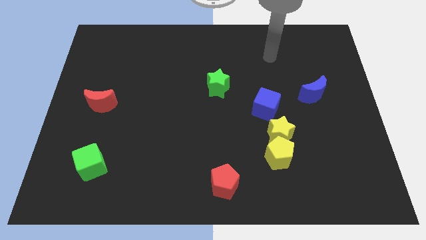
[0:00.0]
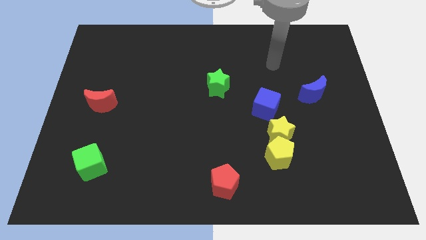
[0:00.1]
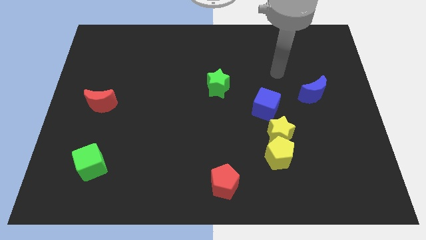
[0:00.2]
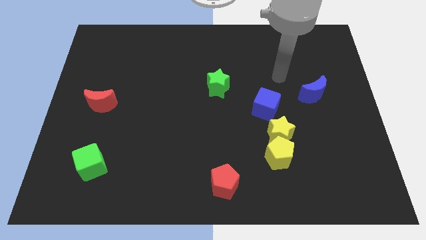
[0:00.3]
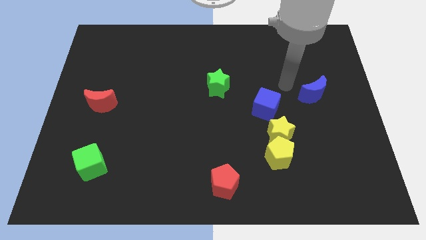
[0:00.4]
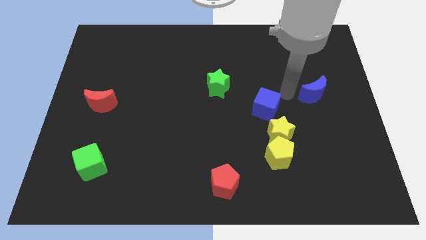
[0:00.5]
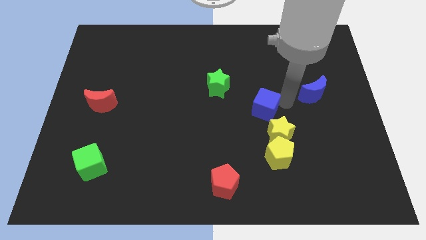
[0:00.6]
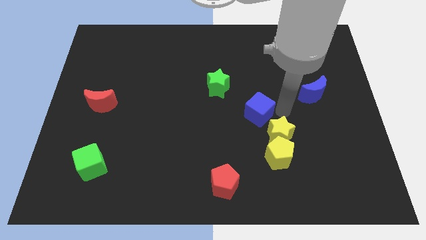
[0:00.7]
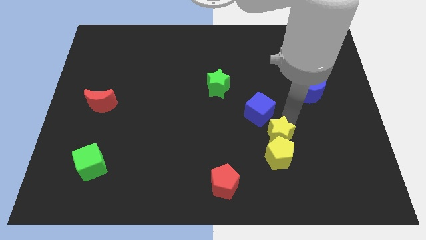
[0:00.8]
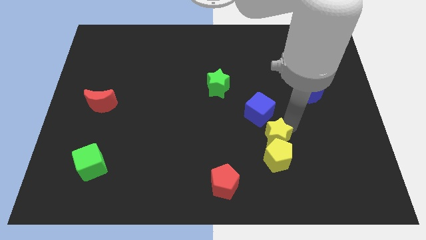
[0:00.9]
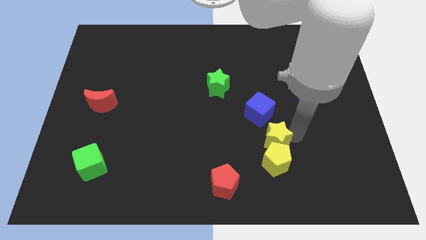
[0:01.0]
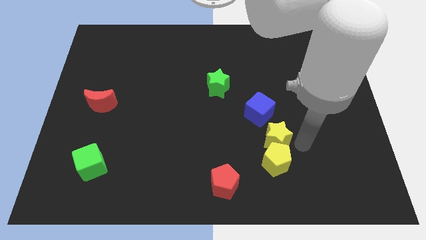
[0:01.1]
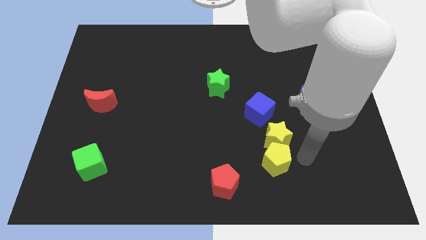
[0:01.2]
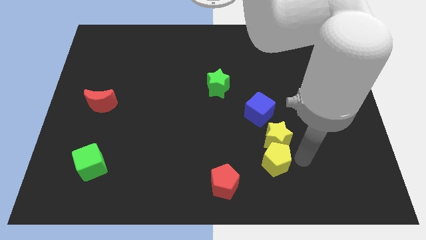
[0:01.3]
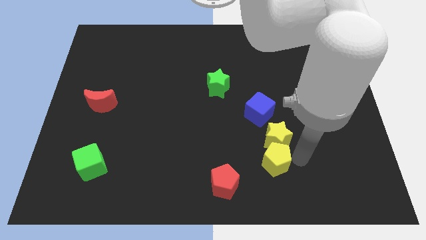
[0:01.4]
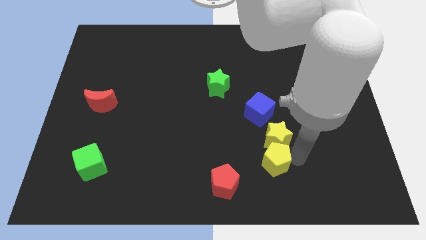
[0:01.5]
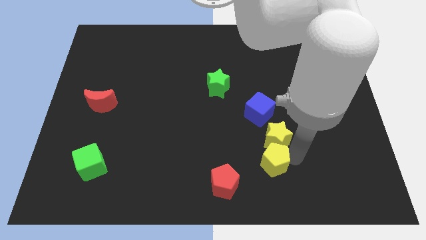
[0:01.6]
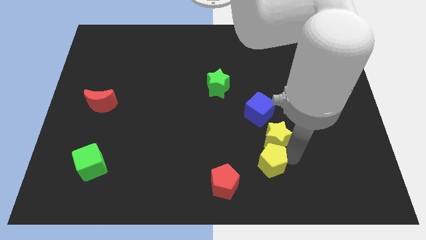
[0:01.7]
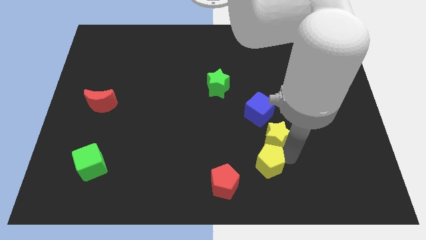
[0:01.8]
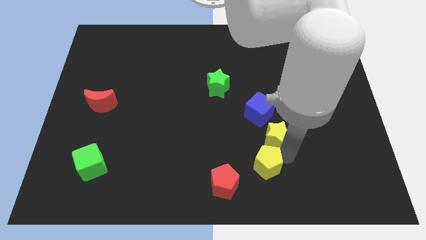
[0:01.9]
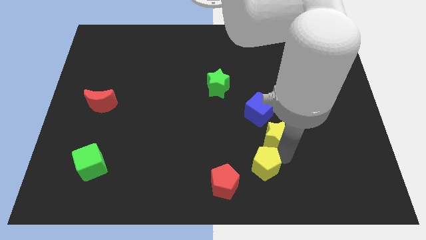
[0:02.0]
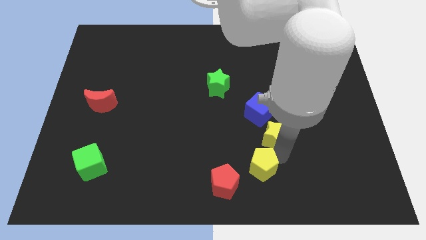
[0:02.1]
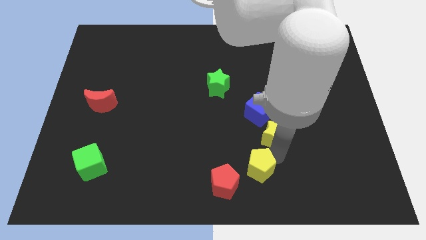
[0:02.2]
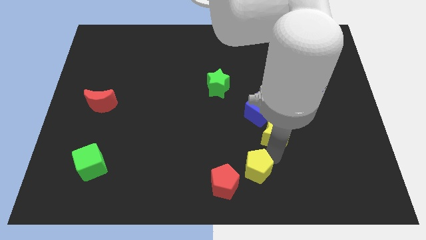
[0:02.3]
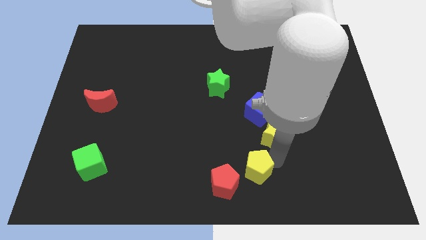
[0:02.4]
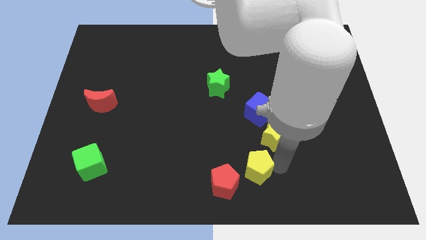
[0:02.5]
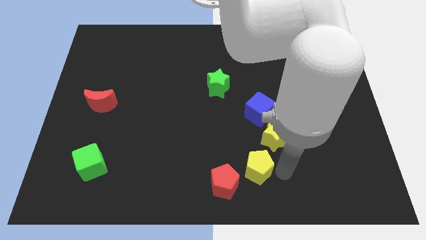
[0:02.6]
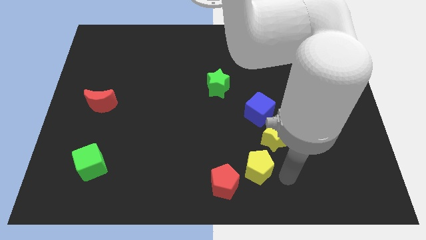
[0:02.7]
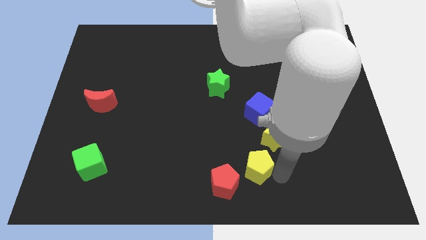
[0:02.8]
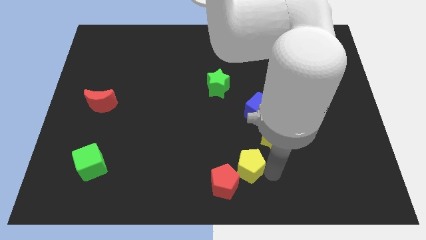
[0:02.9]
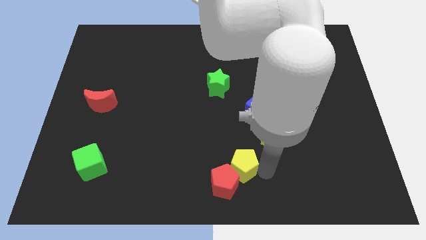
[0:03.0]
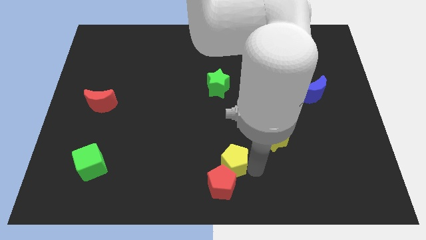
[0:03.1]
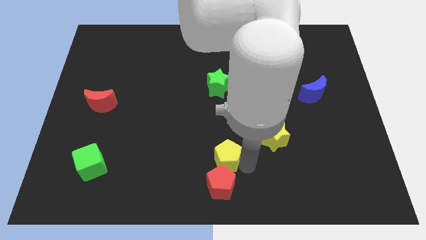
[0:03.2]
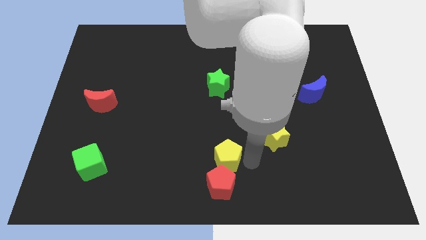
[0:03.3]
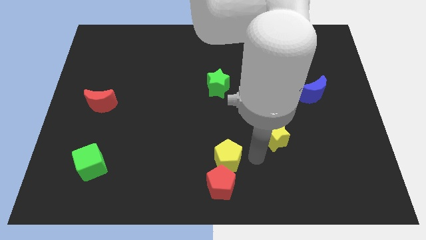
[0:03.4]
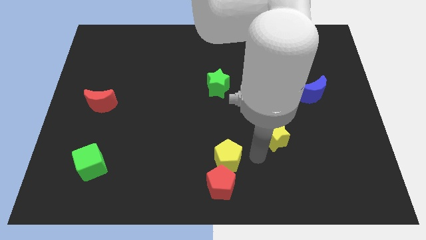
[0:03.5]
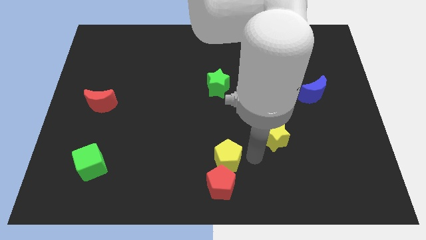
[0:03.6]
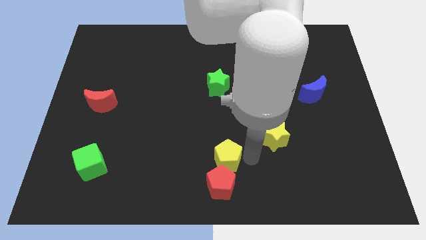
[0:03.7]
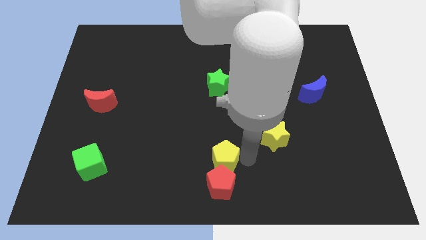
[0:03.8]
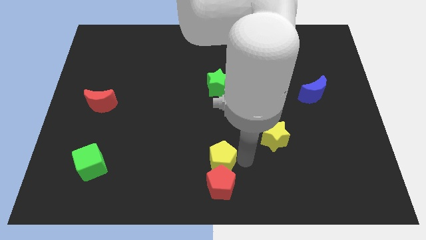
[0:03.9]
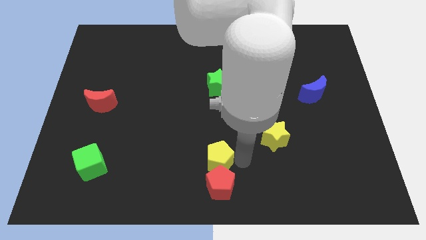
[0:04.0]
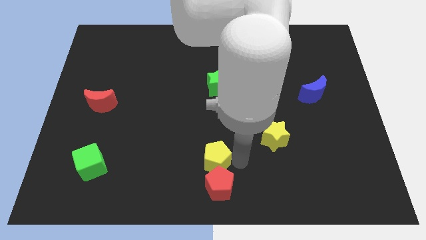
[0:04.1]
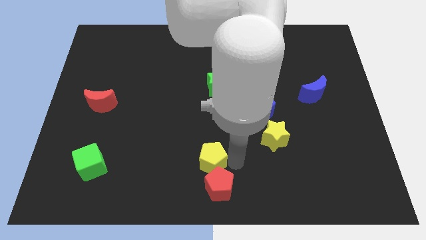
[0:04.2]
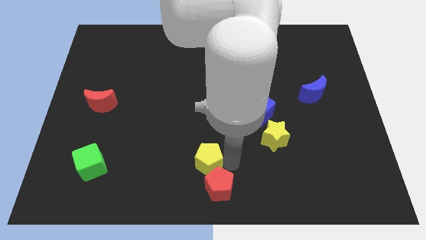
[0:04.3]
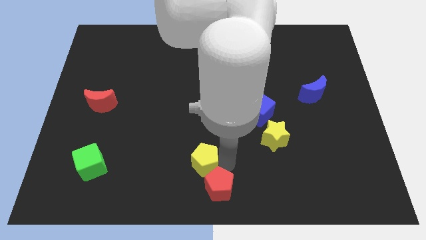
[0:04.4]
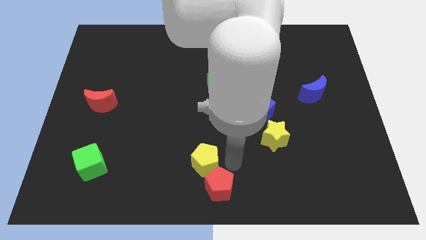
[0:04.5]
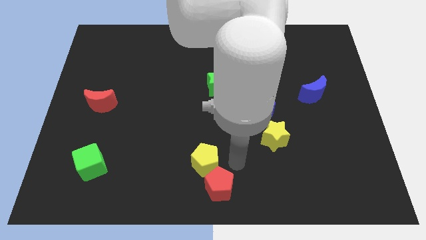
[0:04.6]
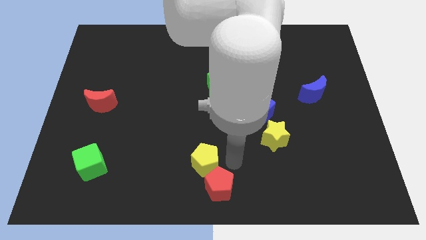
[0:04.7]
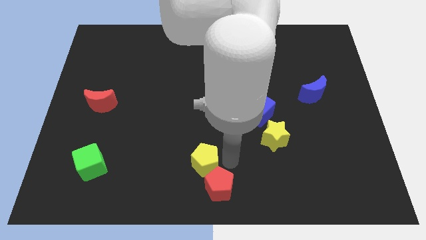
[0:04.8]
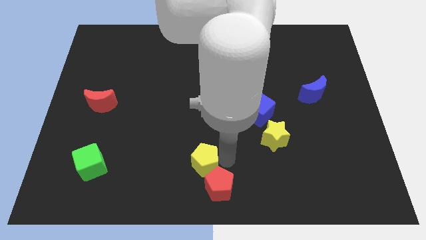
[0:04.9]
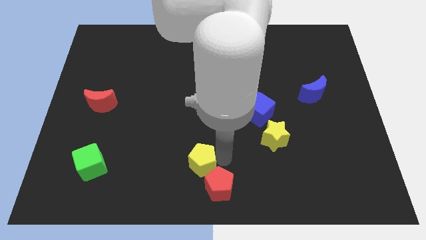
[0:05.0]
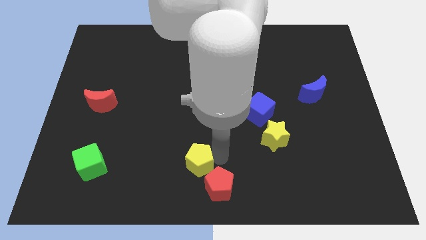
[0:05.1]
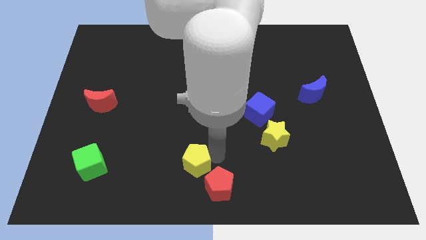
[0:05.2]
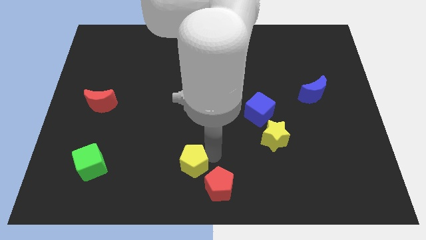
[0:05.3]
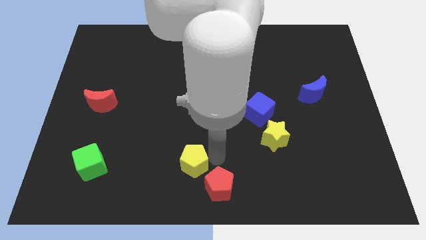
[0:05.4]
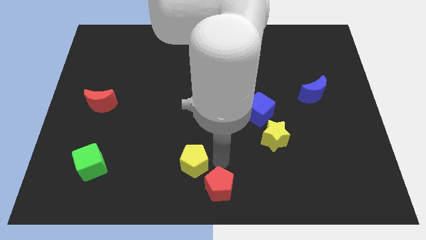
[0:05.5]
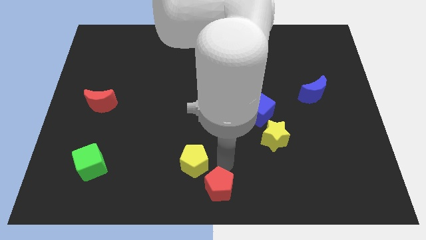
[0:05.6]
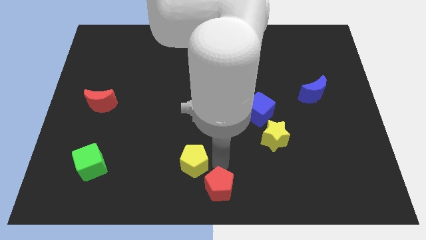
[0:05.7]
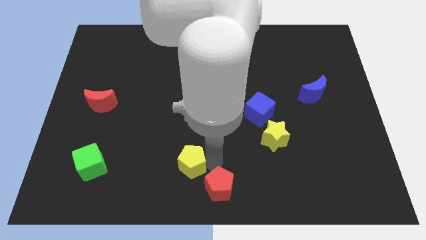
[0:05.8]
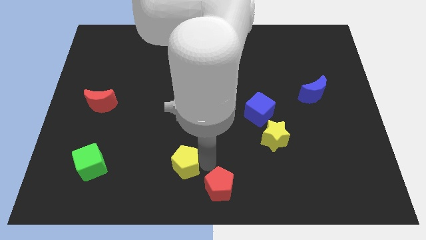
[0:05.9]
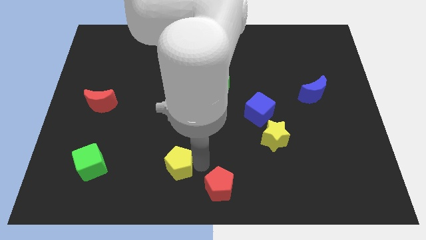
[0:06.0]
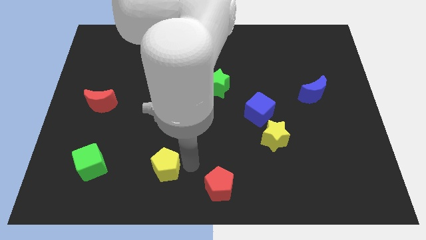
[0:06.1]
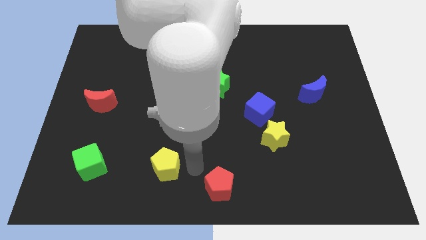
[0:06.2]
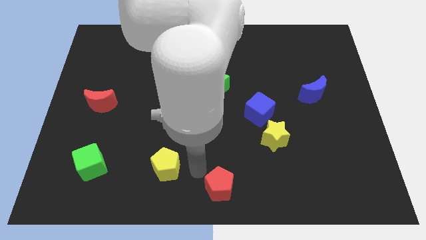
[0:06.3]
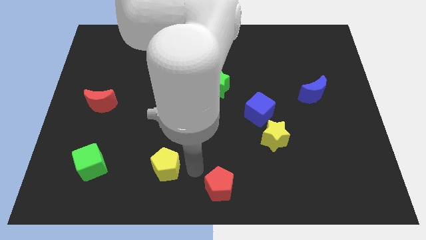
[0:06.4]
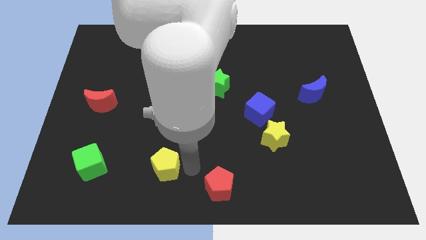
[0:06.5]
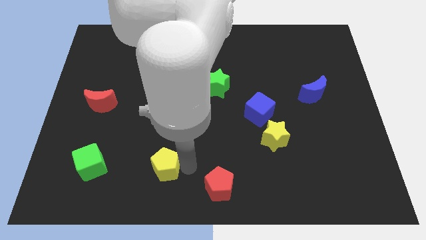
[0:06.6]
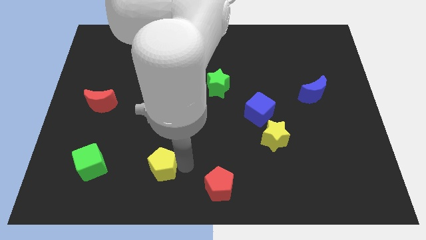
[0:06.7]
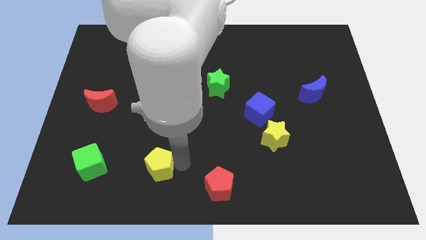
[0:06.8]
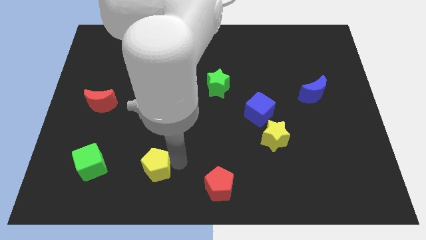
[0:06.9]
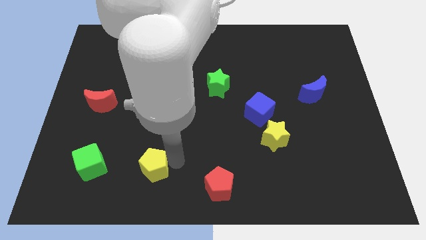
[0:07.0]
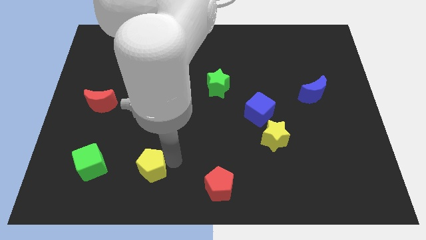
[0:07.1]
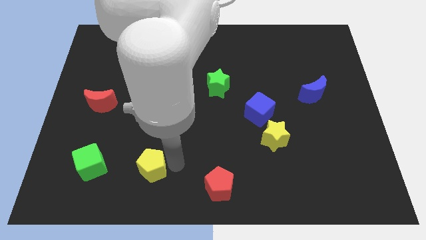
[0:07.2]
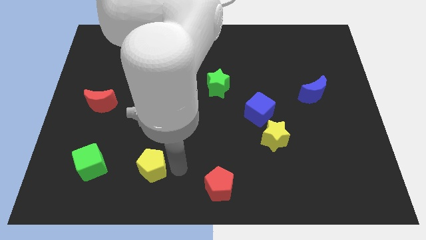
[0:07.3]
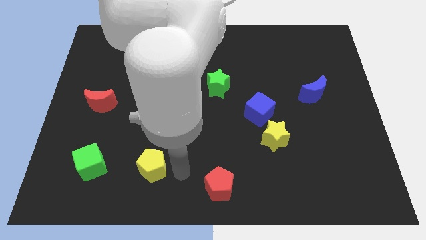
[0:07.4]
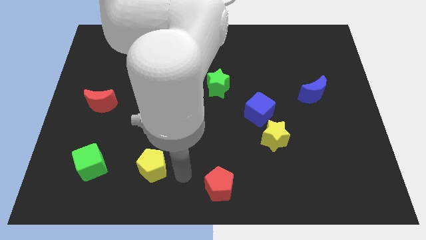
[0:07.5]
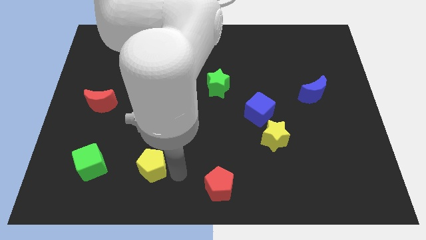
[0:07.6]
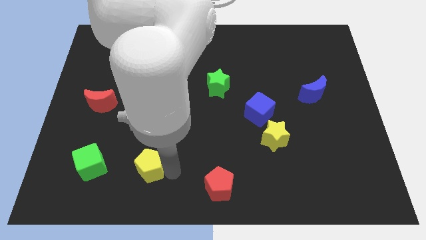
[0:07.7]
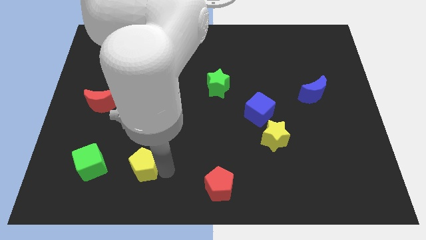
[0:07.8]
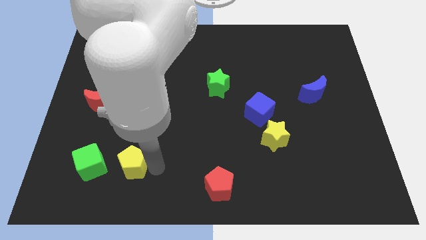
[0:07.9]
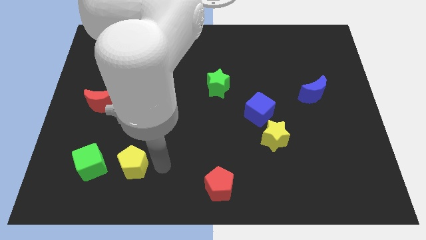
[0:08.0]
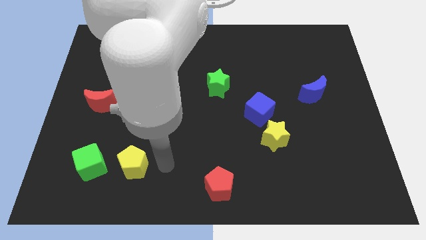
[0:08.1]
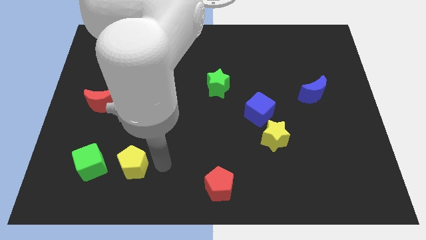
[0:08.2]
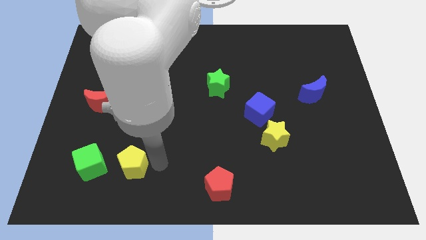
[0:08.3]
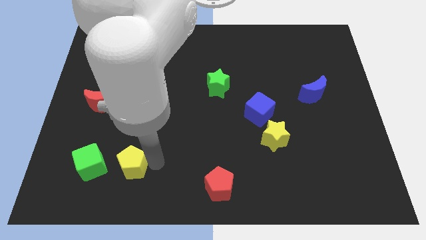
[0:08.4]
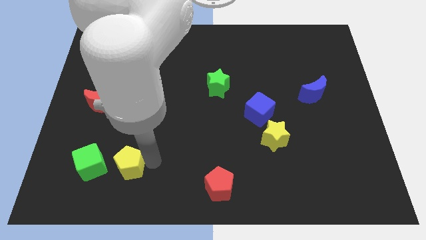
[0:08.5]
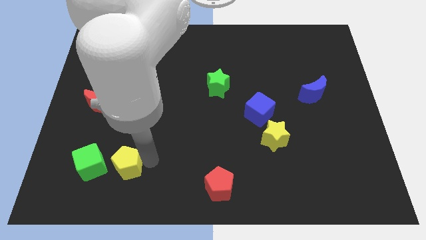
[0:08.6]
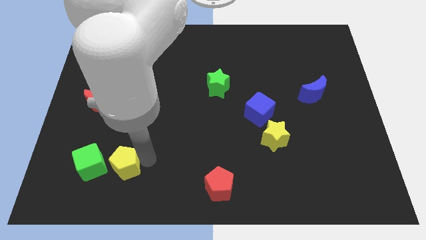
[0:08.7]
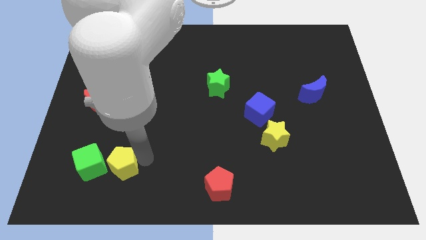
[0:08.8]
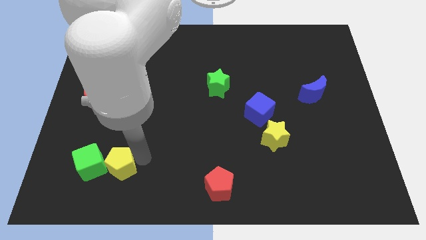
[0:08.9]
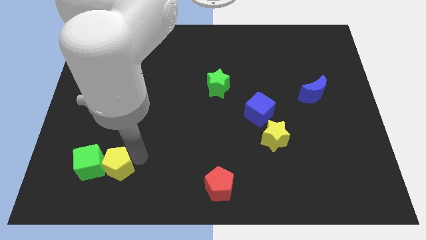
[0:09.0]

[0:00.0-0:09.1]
push the yellow pentagon to the green cube
